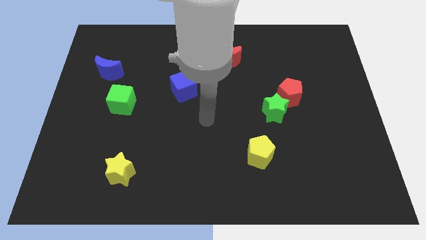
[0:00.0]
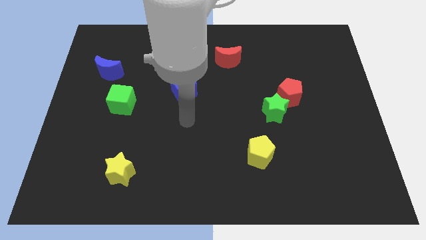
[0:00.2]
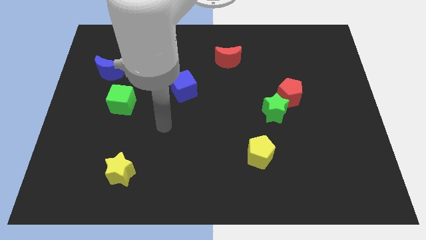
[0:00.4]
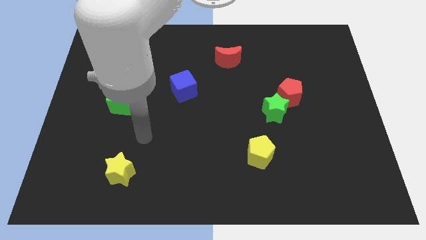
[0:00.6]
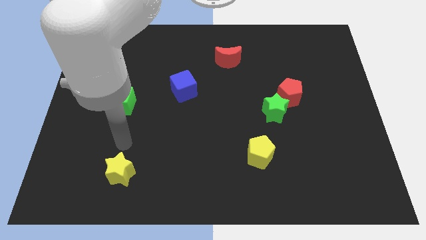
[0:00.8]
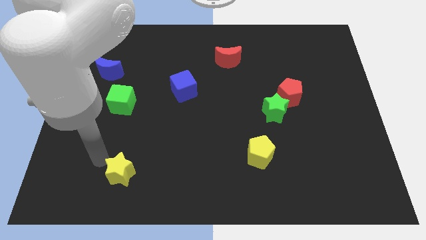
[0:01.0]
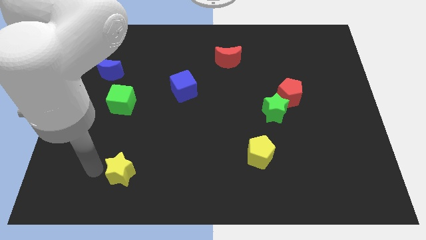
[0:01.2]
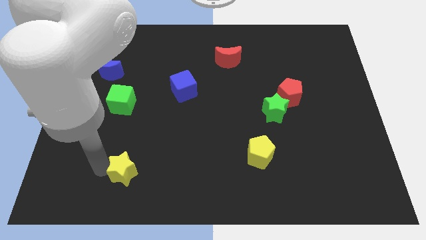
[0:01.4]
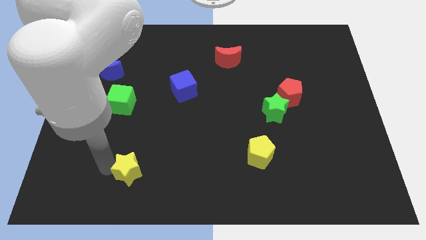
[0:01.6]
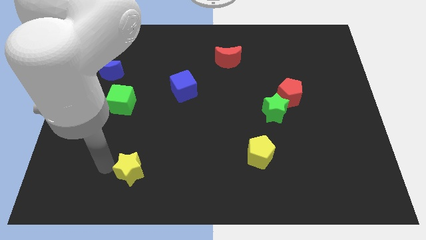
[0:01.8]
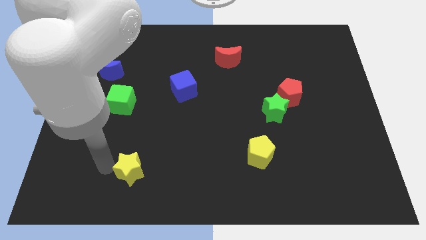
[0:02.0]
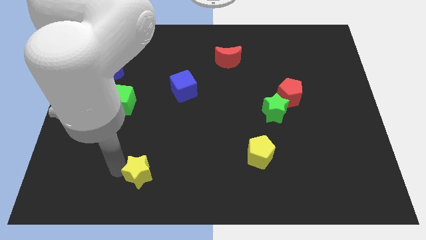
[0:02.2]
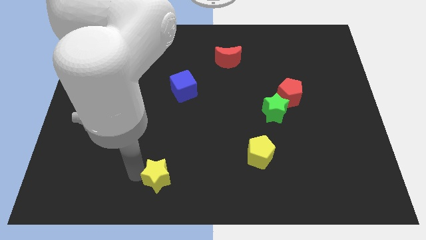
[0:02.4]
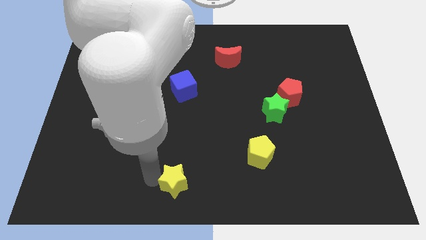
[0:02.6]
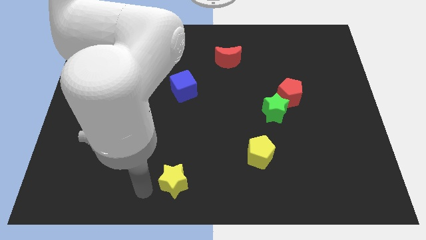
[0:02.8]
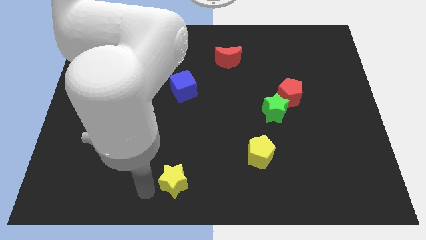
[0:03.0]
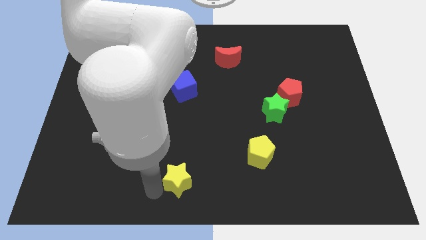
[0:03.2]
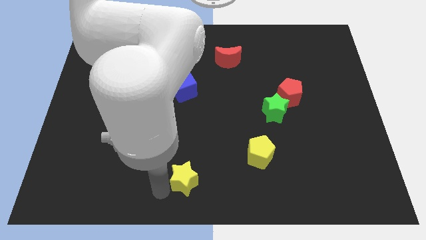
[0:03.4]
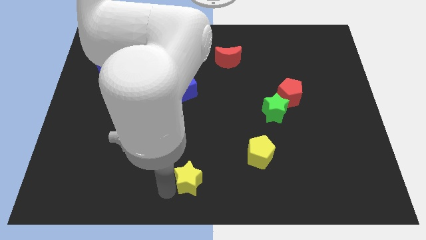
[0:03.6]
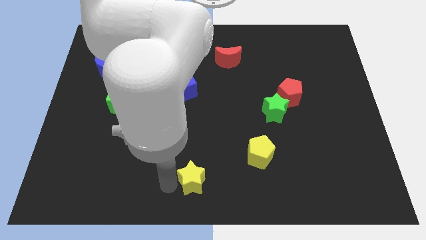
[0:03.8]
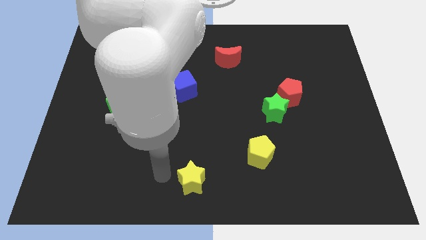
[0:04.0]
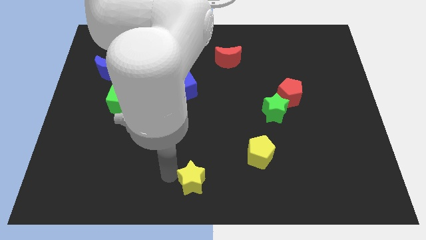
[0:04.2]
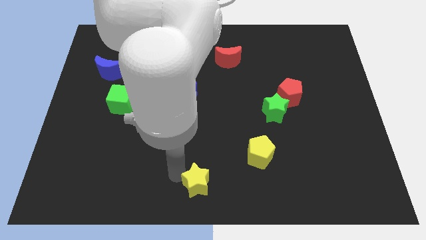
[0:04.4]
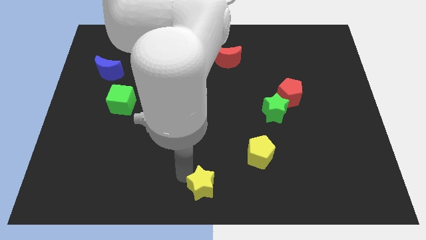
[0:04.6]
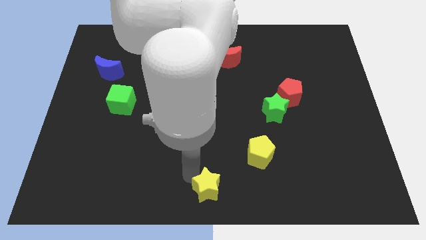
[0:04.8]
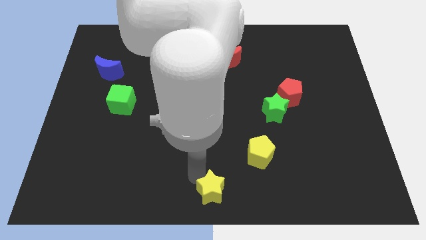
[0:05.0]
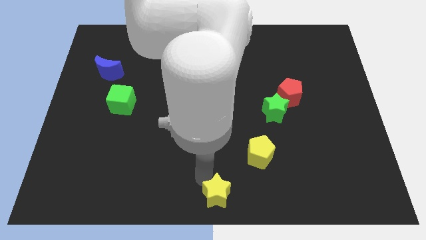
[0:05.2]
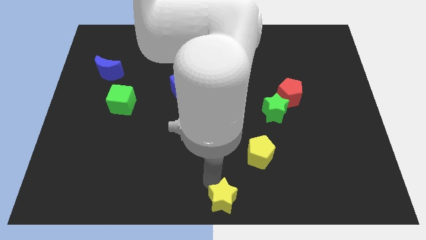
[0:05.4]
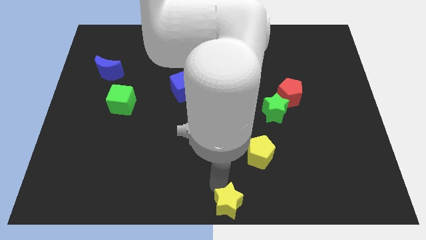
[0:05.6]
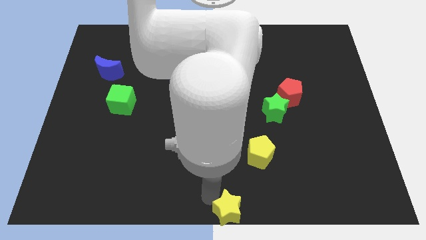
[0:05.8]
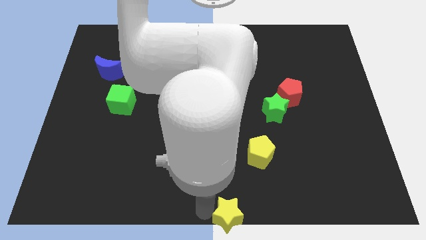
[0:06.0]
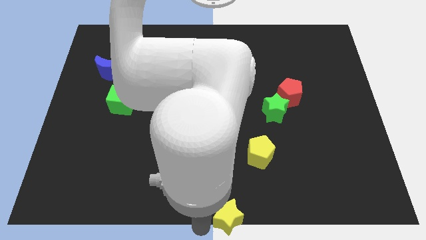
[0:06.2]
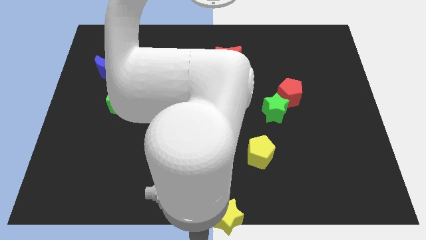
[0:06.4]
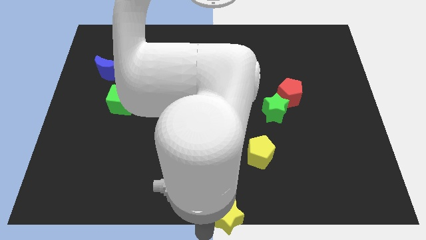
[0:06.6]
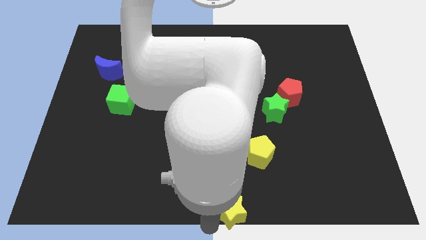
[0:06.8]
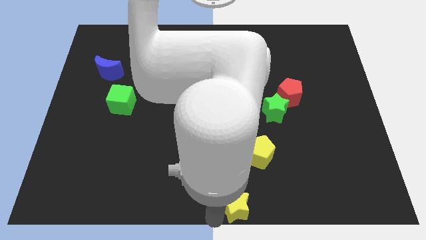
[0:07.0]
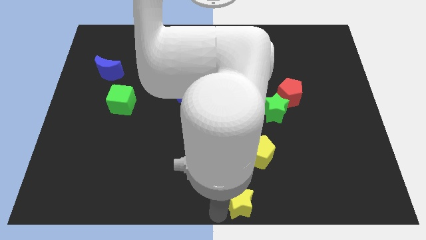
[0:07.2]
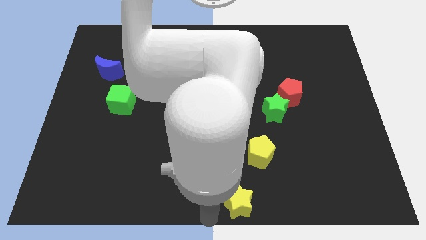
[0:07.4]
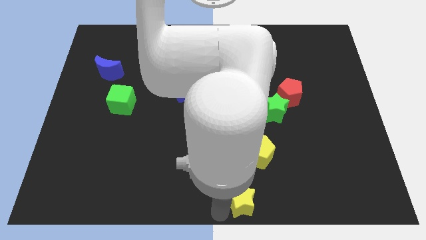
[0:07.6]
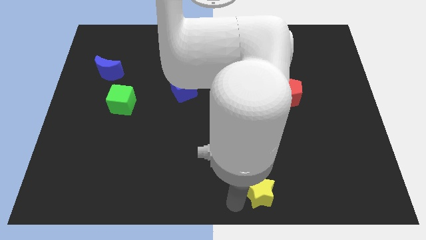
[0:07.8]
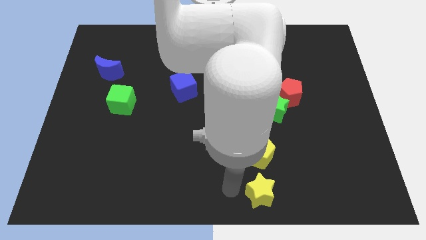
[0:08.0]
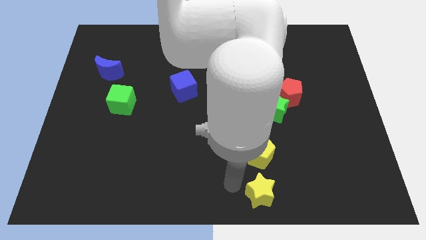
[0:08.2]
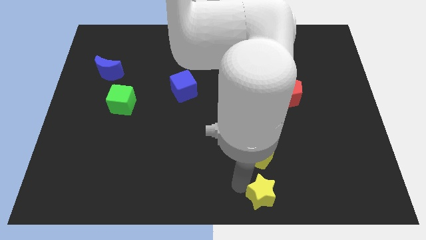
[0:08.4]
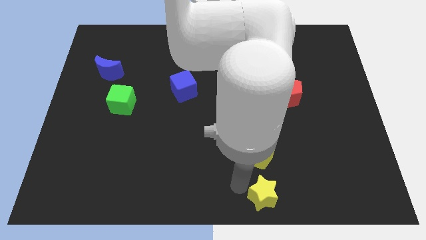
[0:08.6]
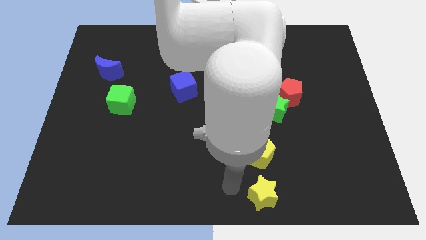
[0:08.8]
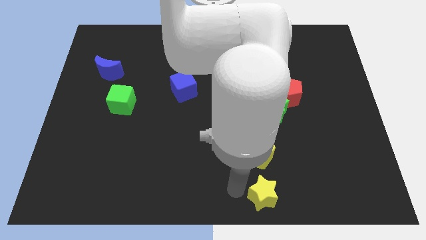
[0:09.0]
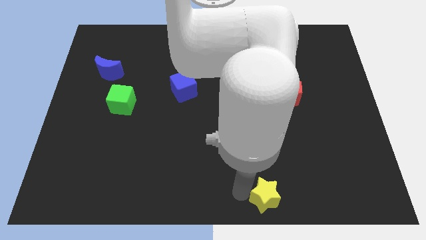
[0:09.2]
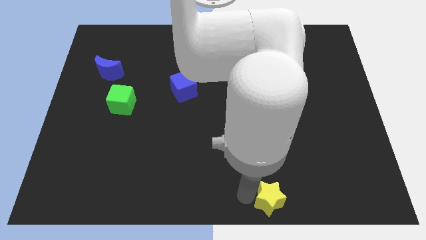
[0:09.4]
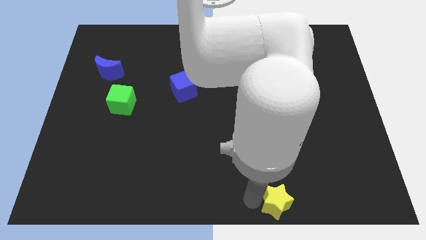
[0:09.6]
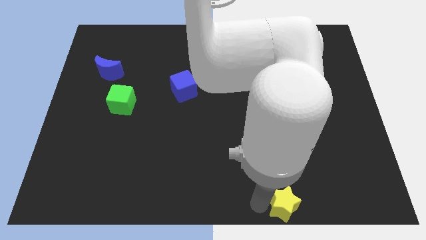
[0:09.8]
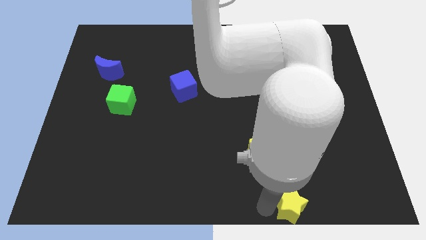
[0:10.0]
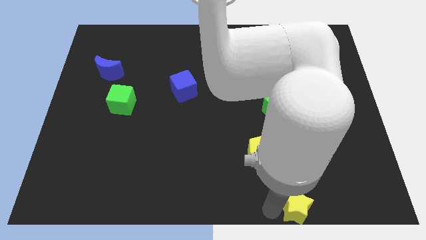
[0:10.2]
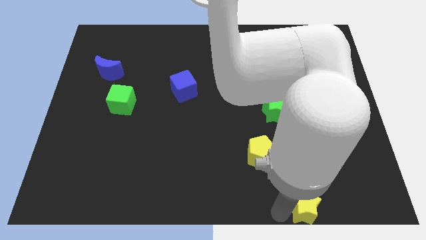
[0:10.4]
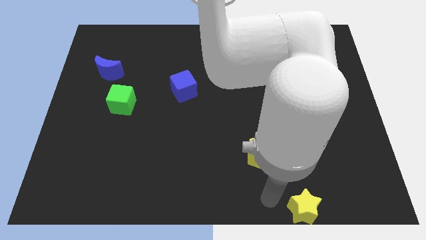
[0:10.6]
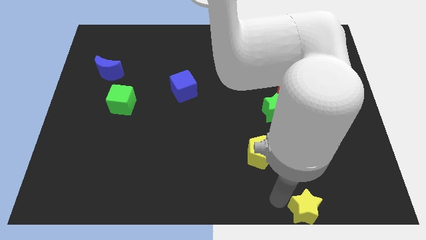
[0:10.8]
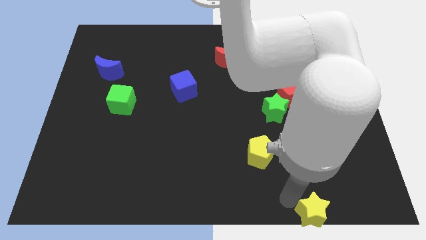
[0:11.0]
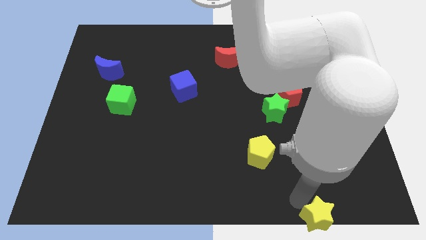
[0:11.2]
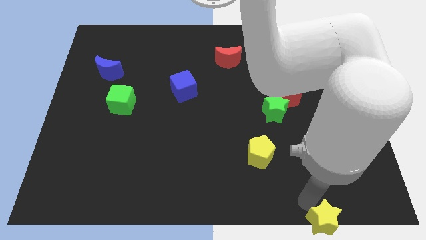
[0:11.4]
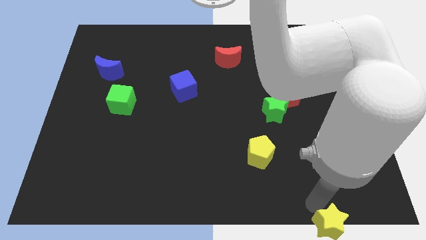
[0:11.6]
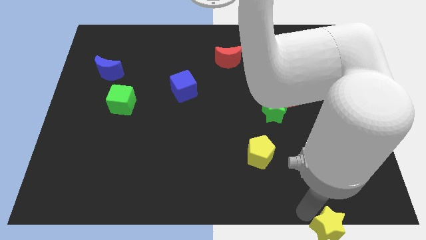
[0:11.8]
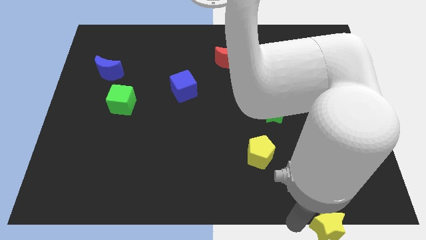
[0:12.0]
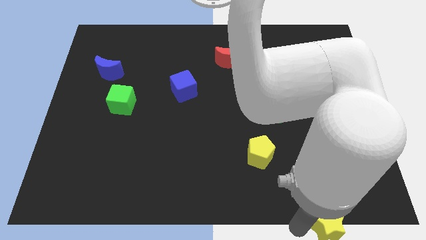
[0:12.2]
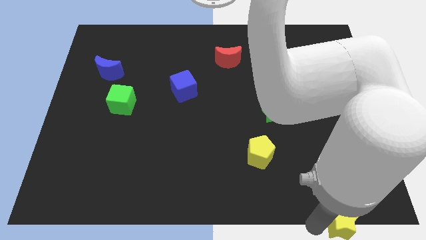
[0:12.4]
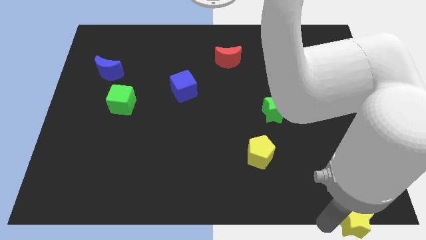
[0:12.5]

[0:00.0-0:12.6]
slide the yellow star to the lower right corner
